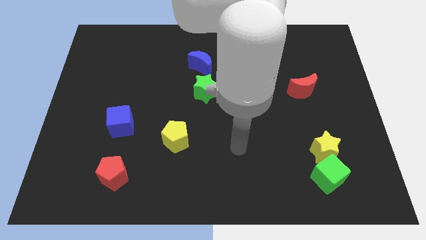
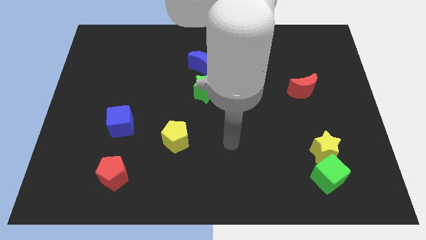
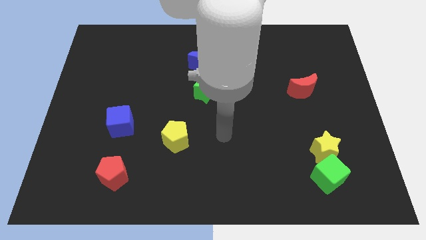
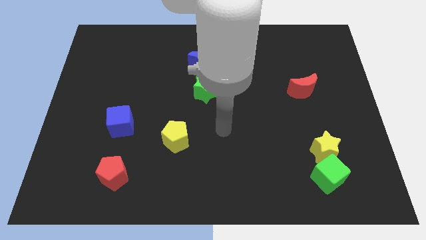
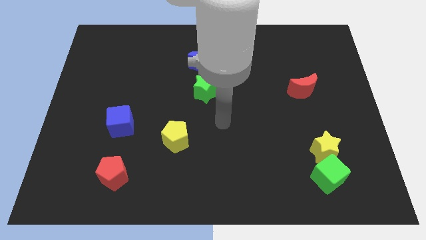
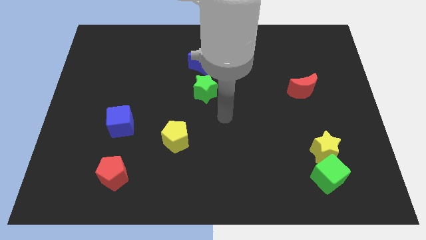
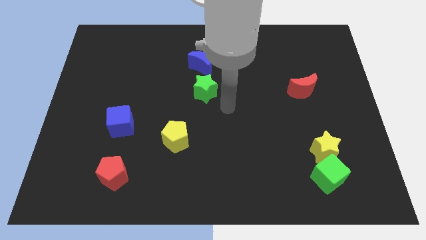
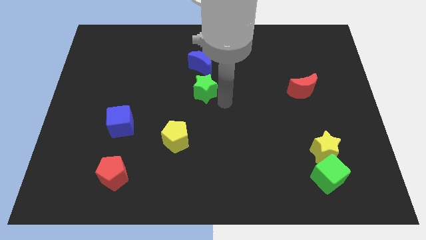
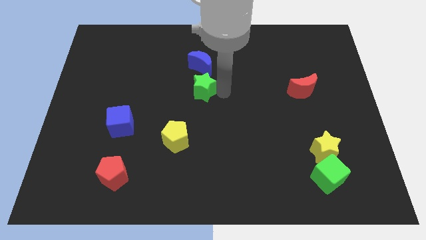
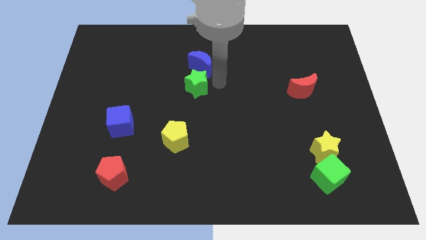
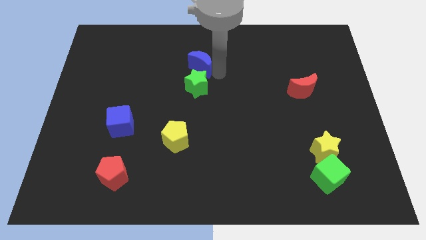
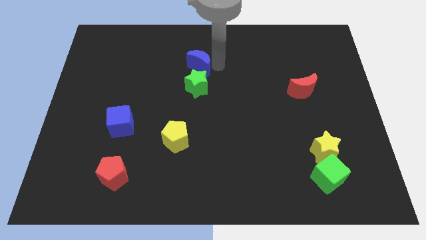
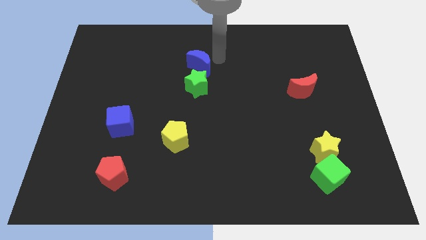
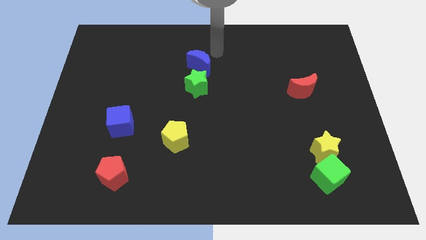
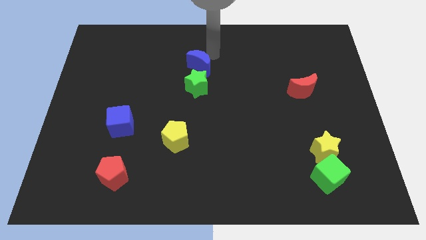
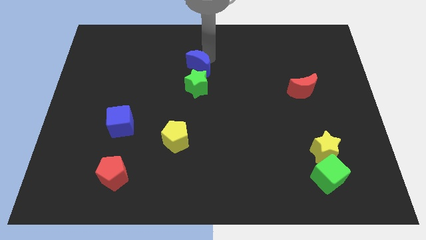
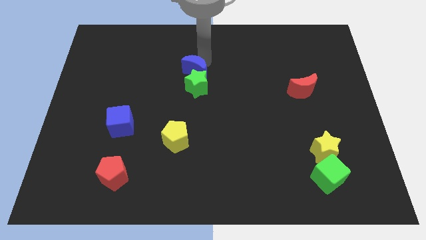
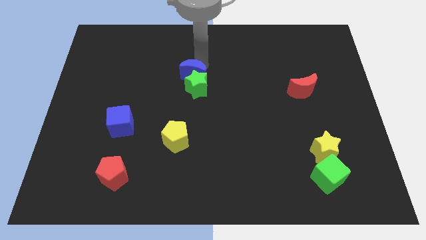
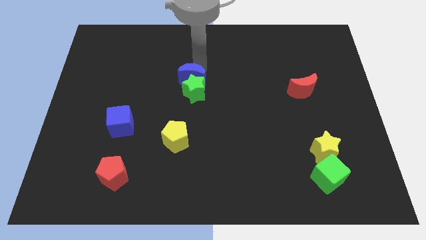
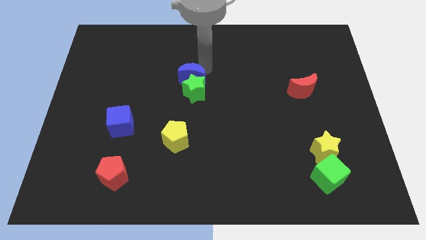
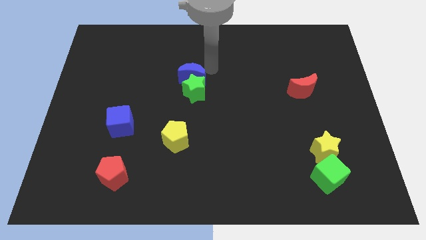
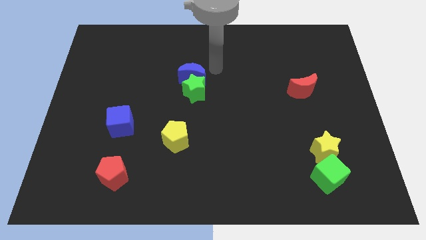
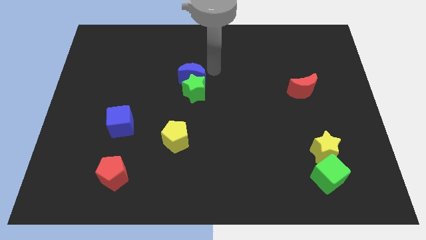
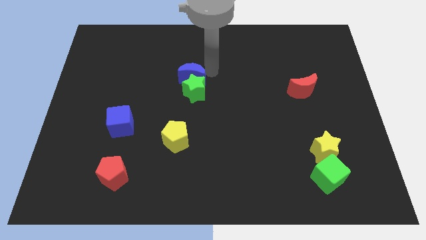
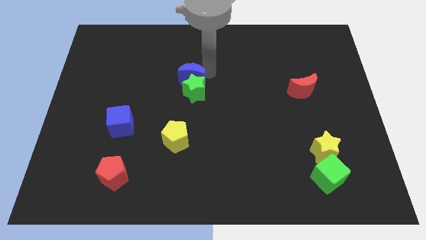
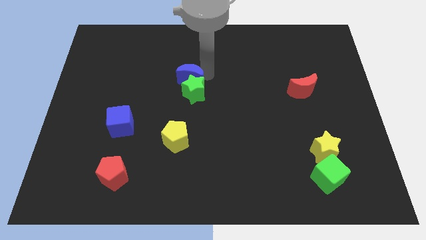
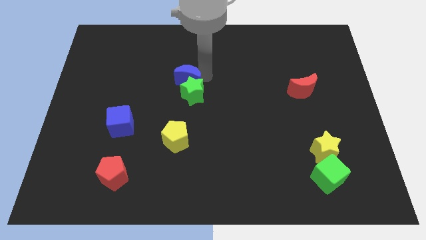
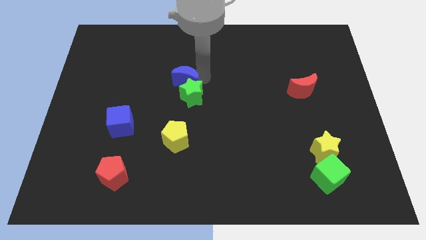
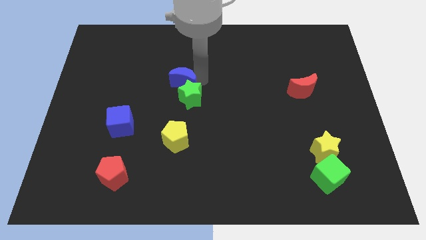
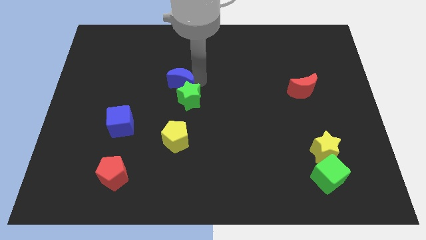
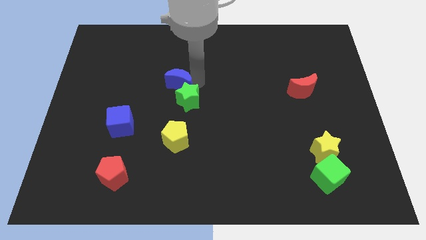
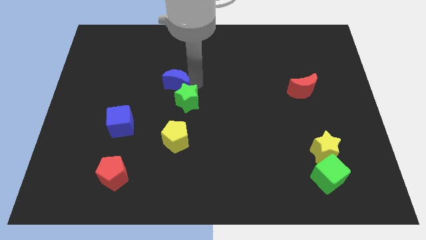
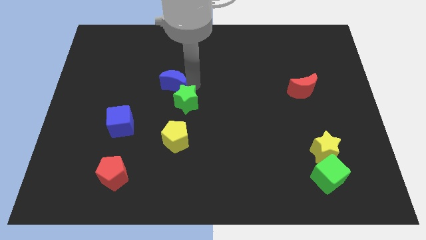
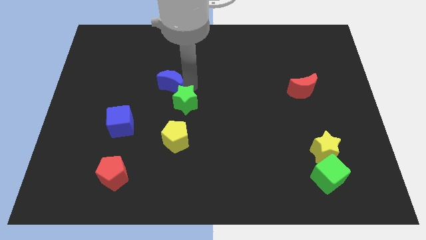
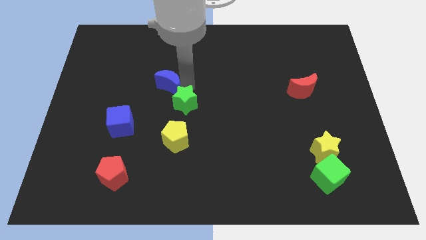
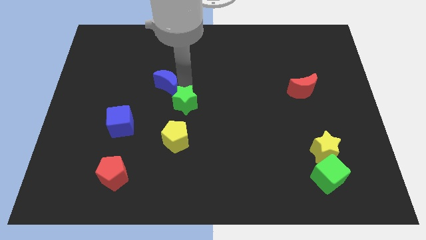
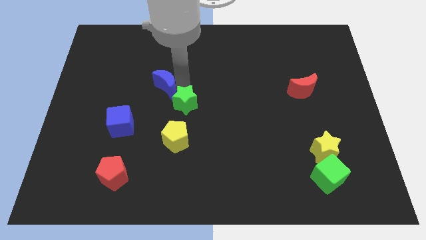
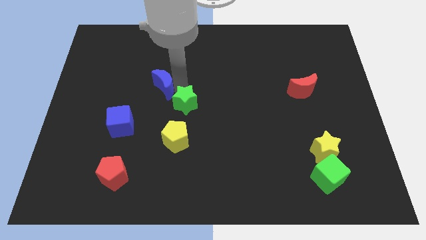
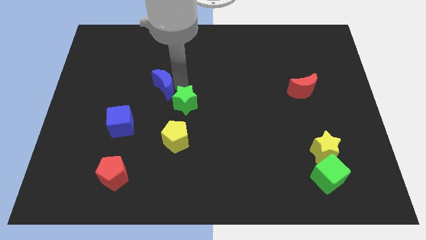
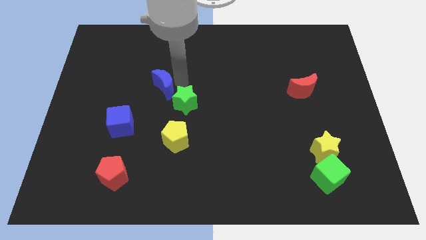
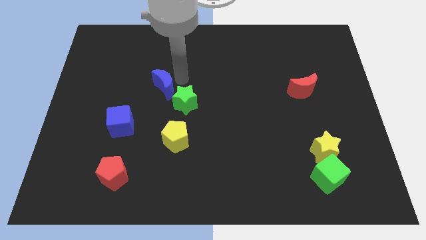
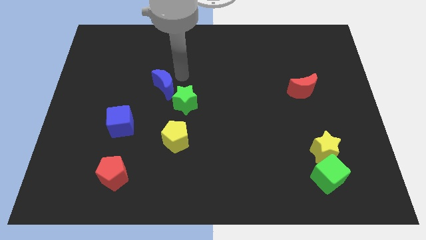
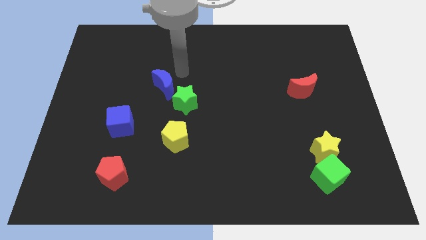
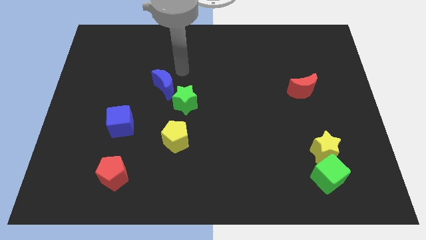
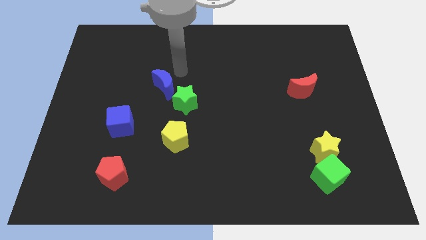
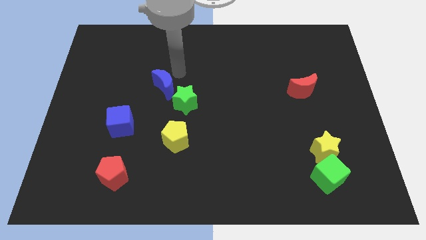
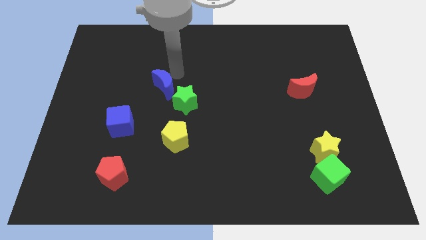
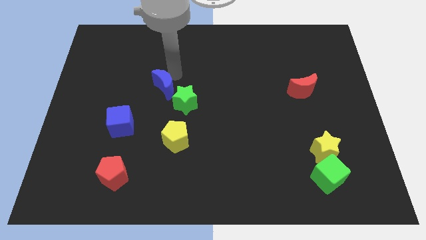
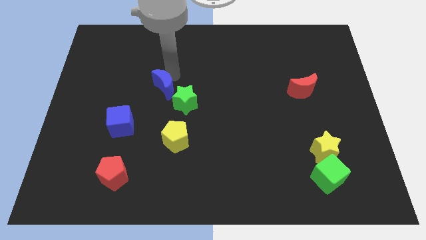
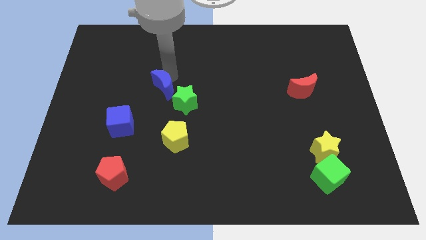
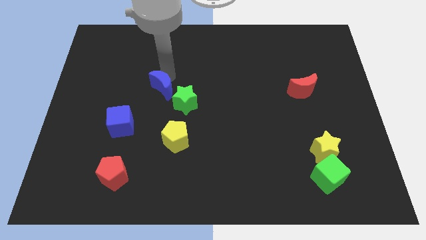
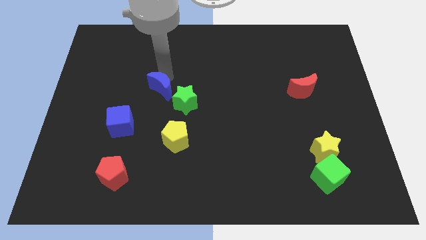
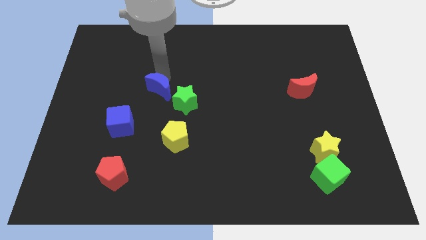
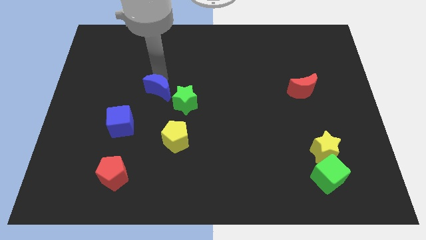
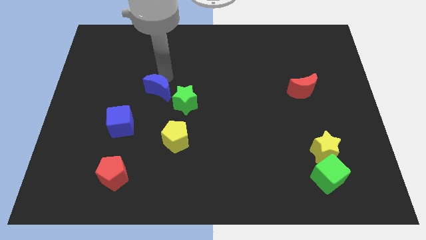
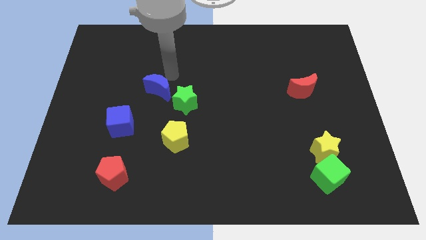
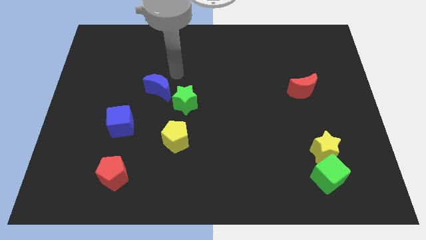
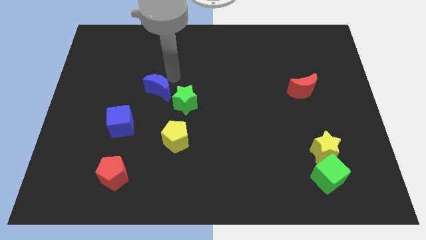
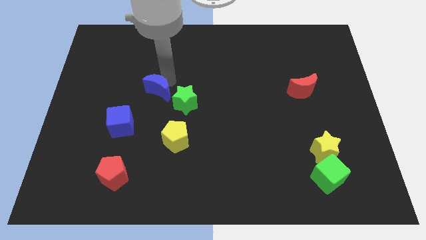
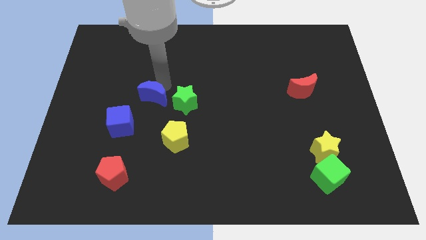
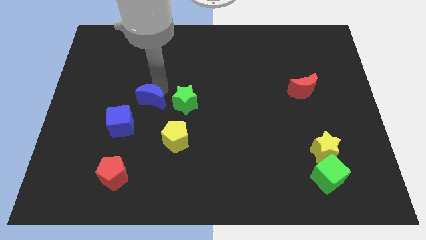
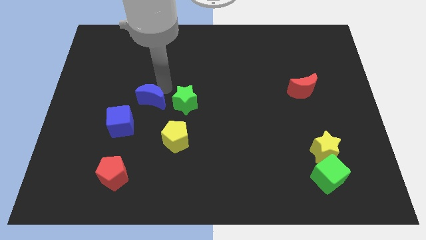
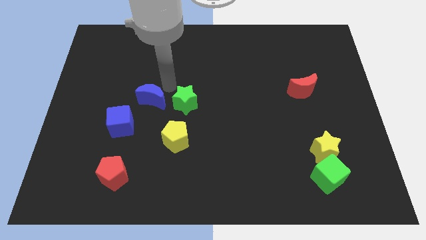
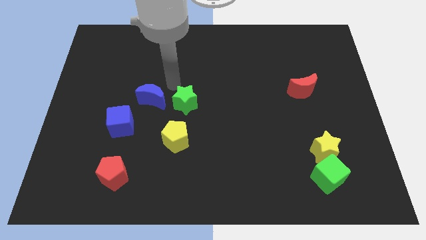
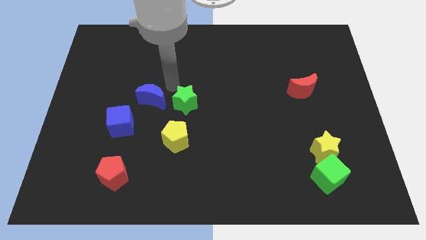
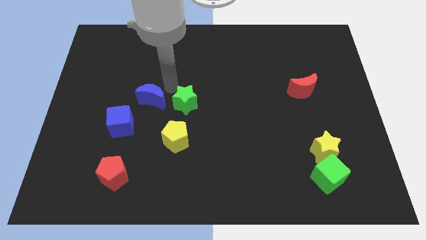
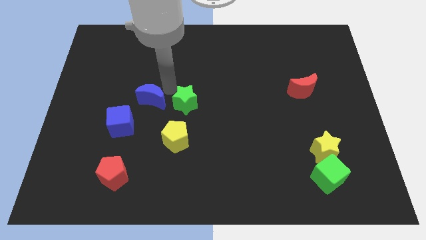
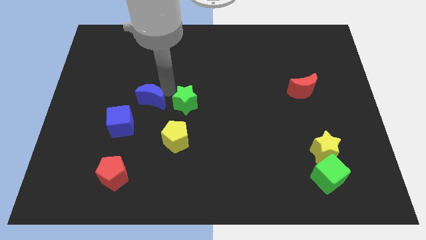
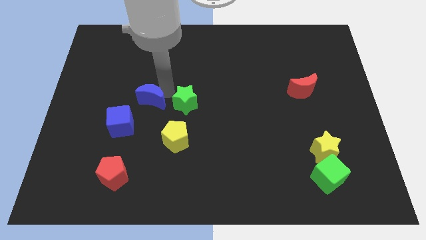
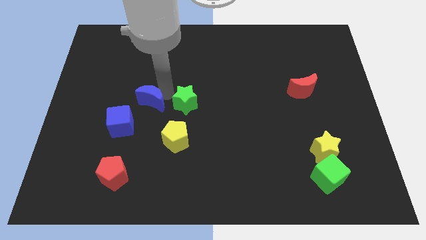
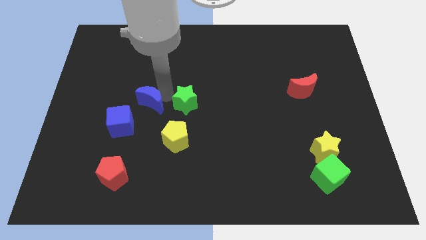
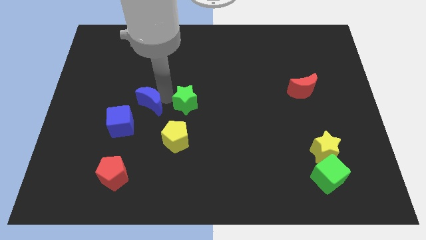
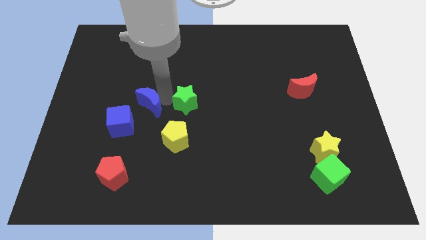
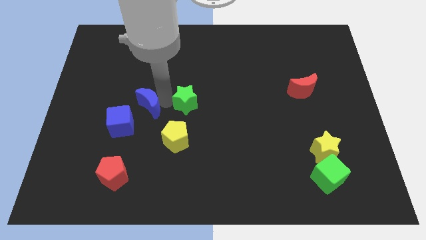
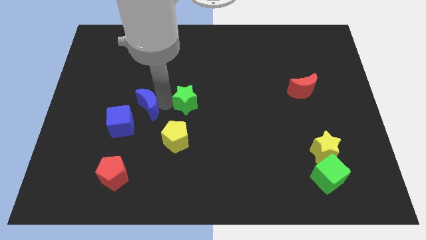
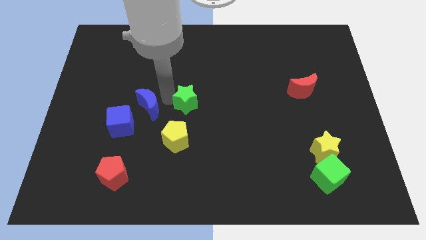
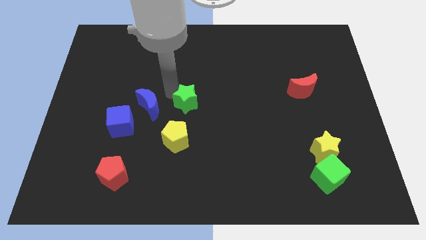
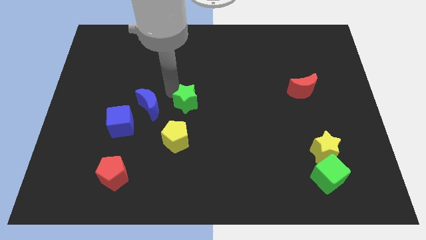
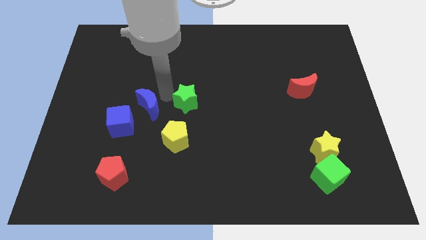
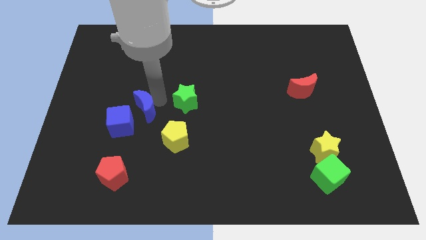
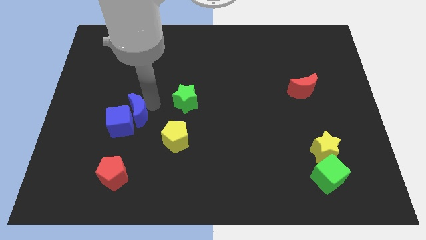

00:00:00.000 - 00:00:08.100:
put the blue moon close to the blue cube
